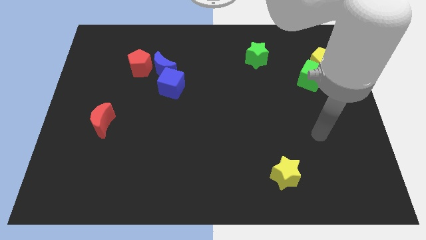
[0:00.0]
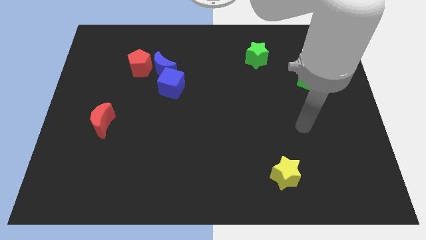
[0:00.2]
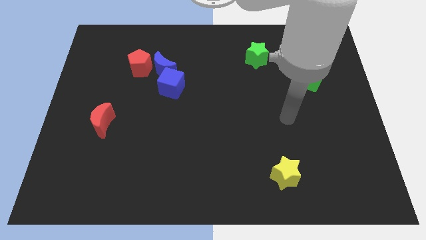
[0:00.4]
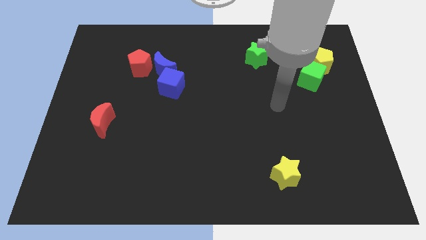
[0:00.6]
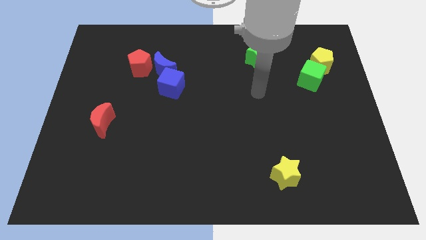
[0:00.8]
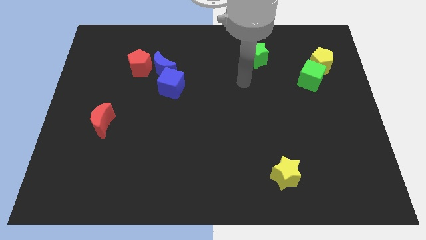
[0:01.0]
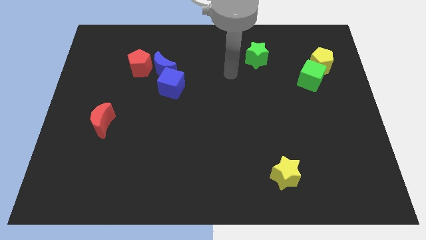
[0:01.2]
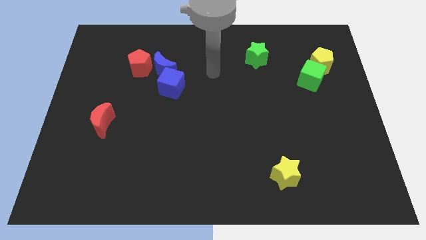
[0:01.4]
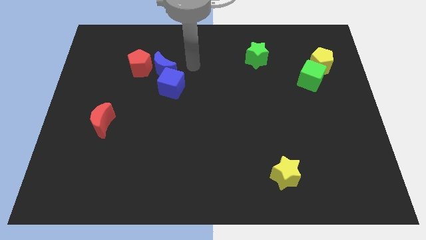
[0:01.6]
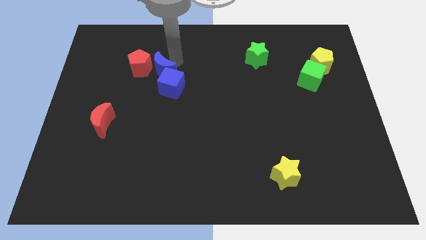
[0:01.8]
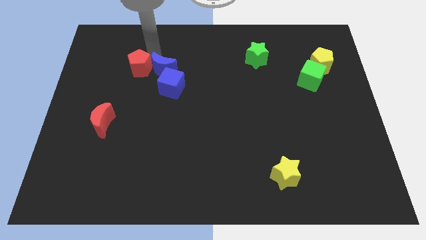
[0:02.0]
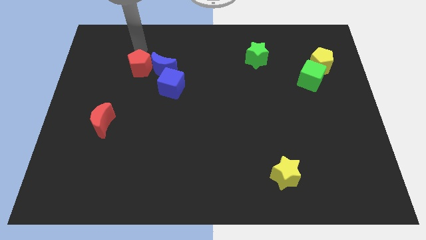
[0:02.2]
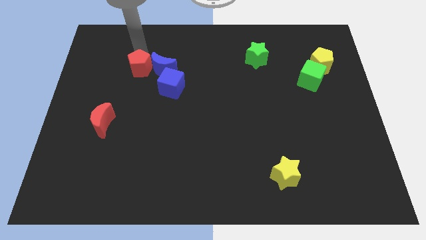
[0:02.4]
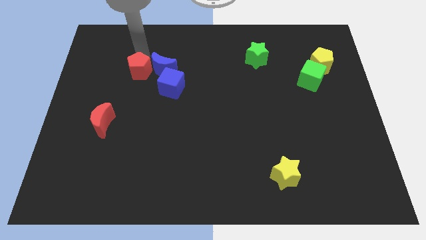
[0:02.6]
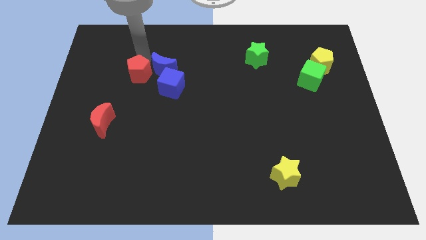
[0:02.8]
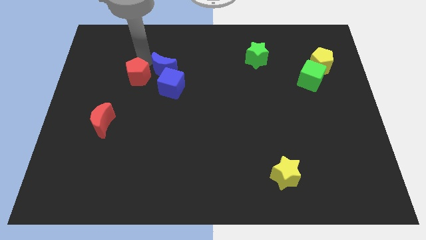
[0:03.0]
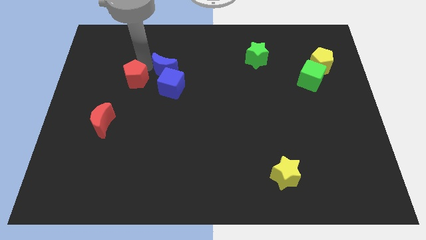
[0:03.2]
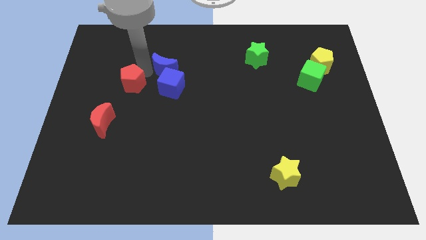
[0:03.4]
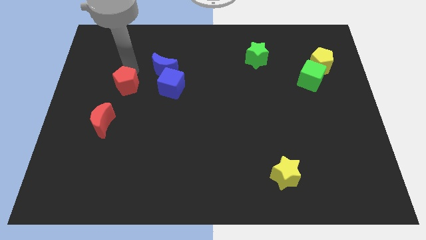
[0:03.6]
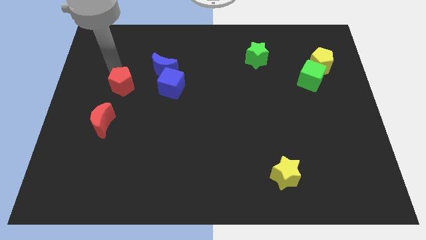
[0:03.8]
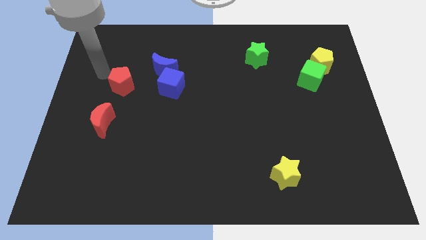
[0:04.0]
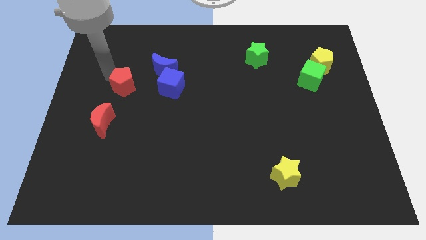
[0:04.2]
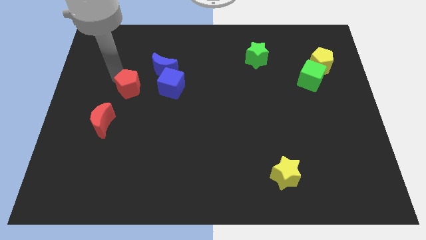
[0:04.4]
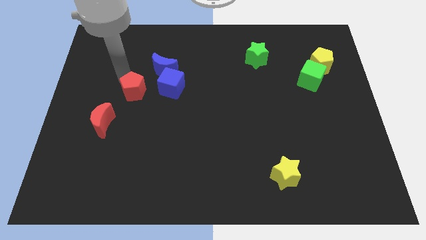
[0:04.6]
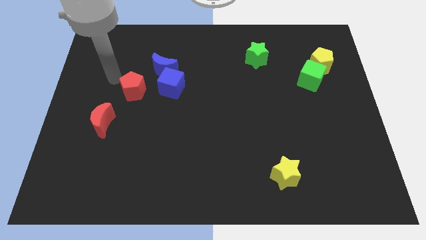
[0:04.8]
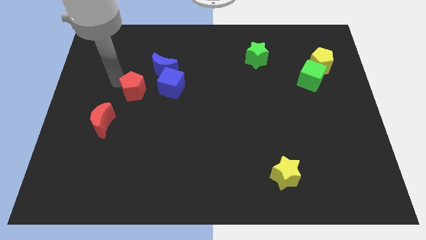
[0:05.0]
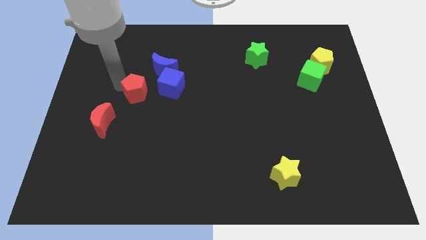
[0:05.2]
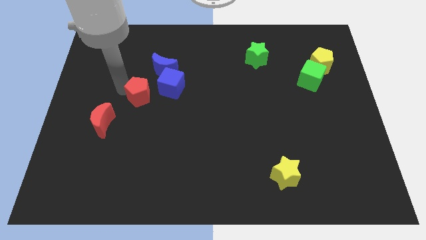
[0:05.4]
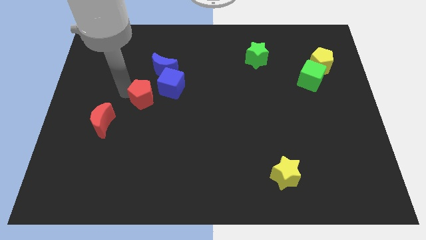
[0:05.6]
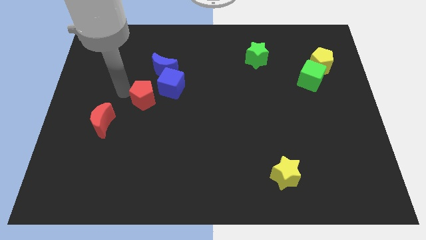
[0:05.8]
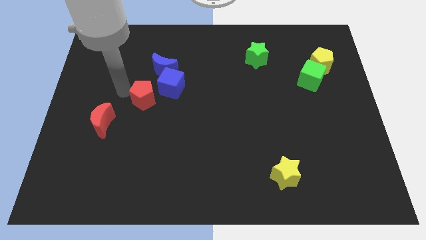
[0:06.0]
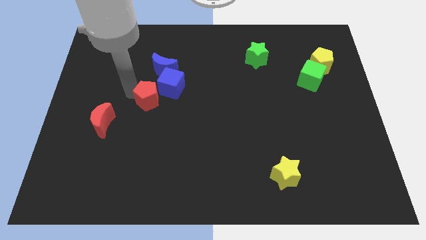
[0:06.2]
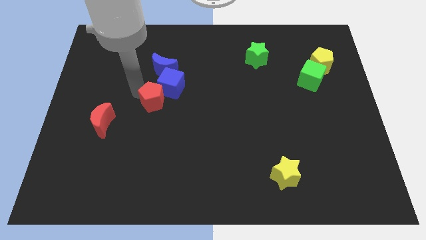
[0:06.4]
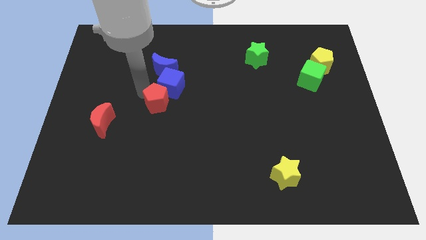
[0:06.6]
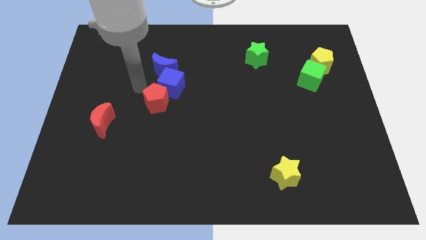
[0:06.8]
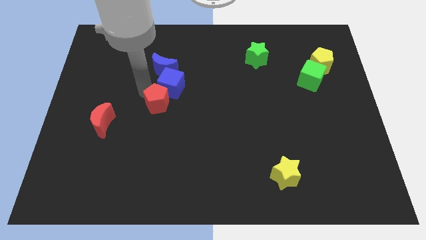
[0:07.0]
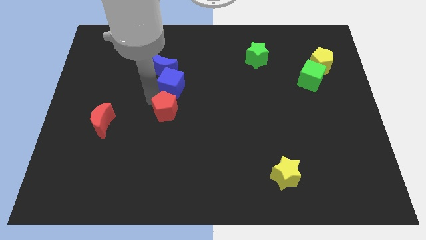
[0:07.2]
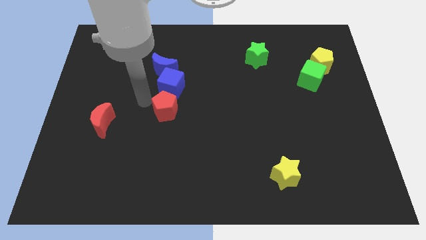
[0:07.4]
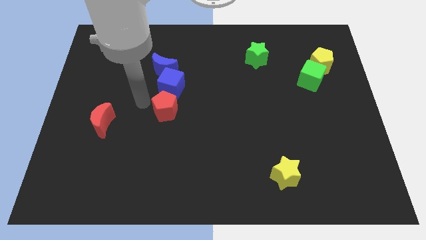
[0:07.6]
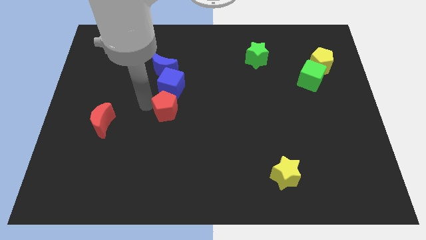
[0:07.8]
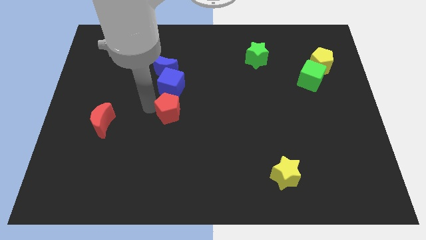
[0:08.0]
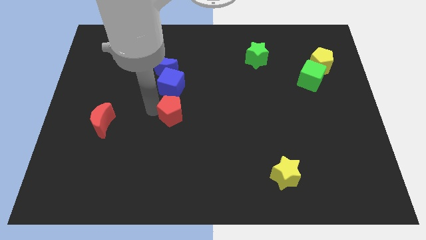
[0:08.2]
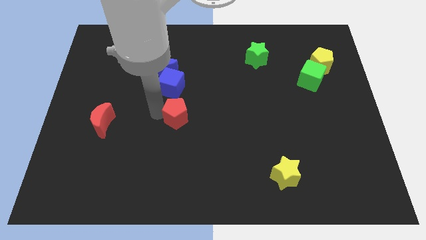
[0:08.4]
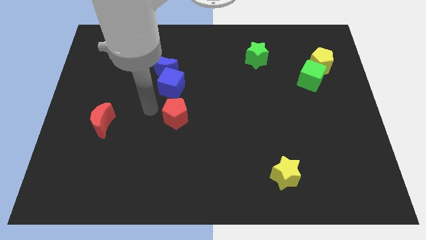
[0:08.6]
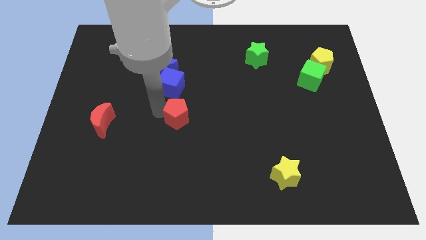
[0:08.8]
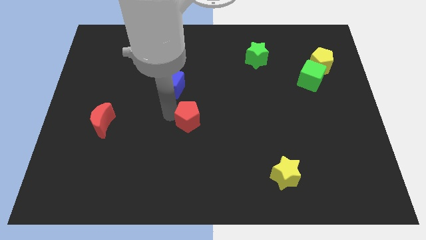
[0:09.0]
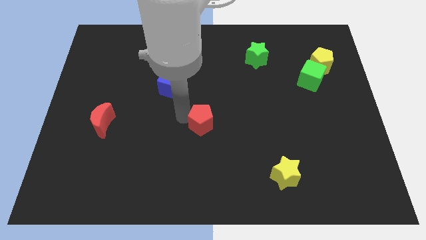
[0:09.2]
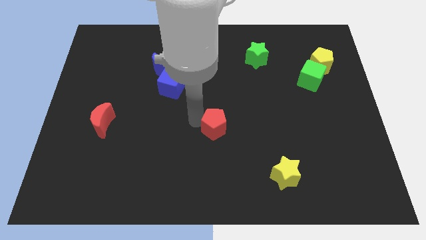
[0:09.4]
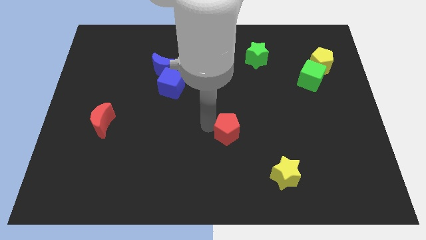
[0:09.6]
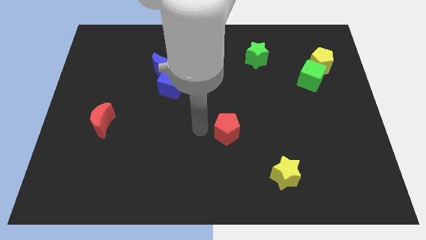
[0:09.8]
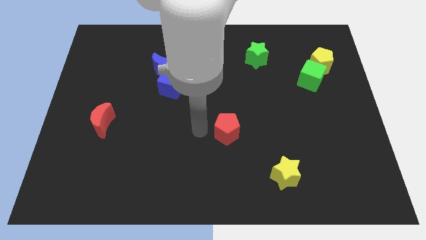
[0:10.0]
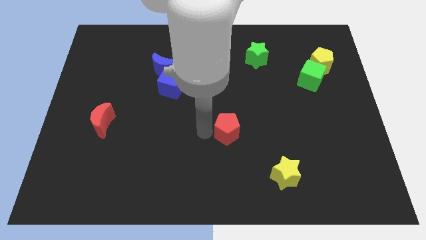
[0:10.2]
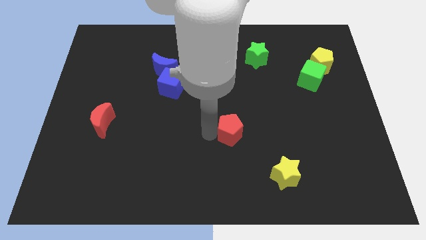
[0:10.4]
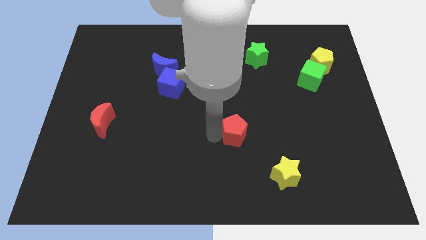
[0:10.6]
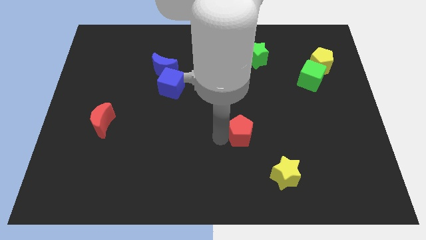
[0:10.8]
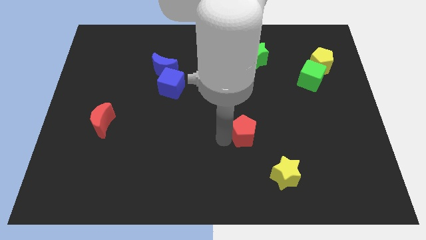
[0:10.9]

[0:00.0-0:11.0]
push the red pentagon diagonally up and to the left of the yellow star

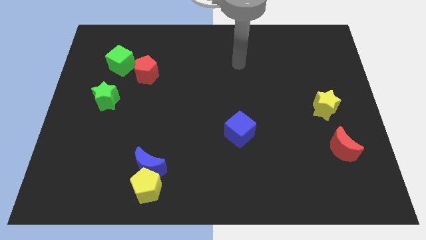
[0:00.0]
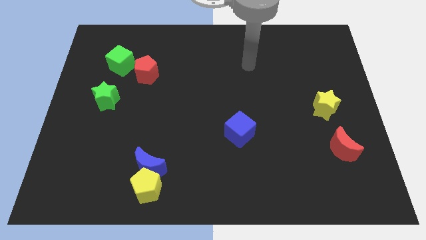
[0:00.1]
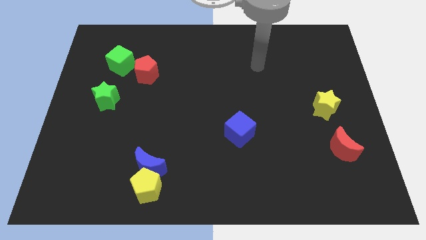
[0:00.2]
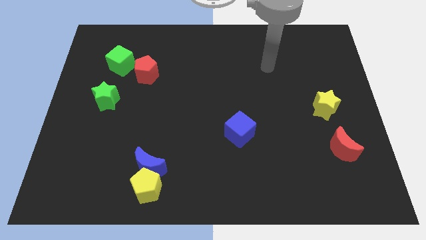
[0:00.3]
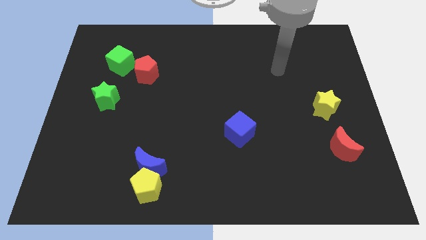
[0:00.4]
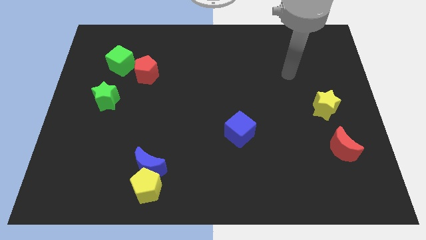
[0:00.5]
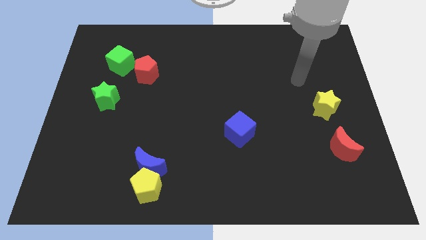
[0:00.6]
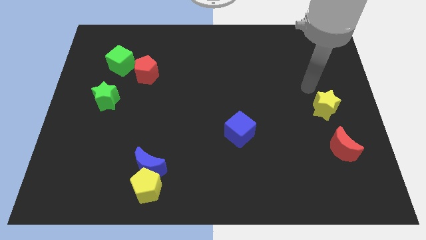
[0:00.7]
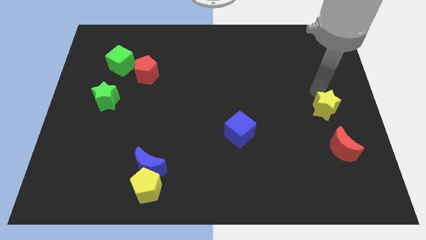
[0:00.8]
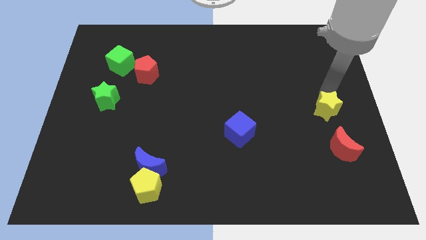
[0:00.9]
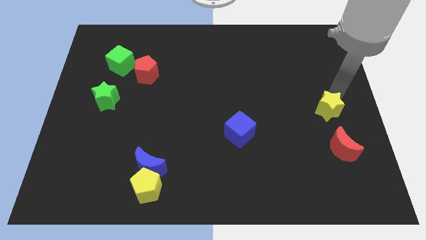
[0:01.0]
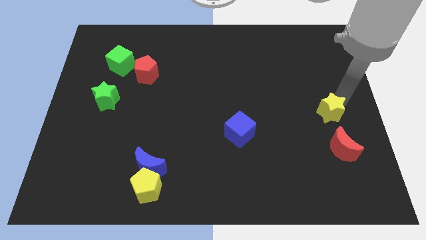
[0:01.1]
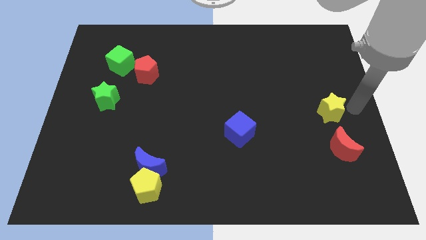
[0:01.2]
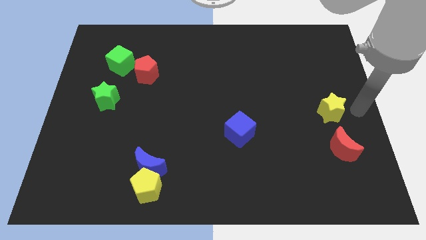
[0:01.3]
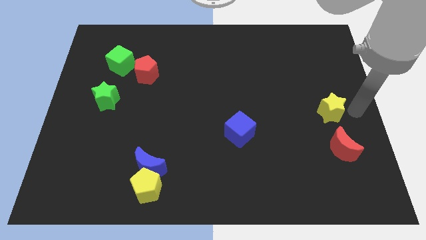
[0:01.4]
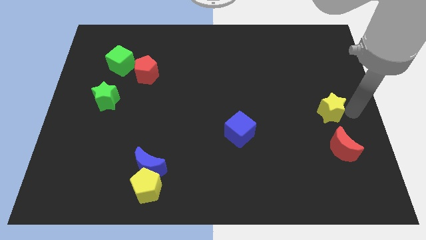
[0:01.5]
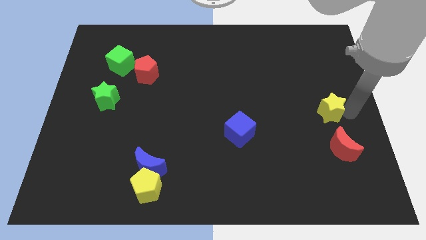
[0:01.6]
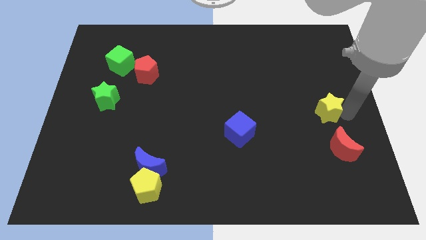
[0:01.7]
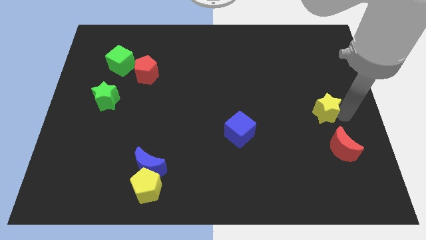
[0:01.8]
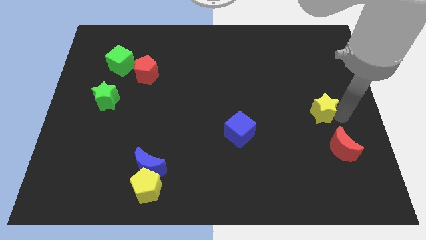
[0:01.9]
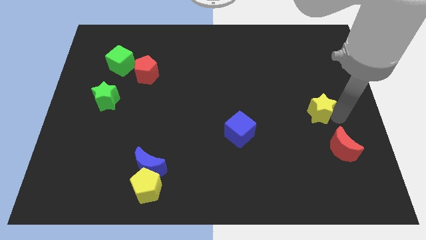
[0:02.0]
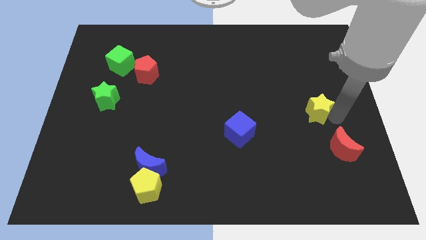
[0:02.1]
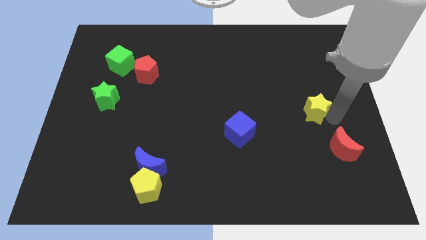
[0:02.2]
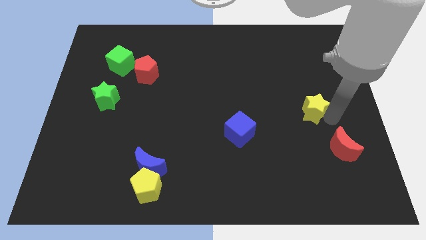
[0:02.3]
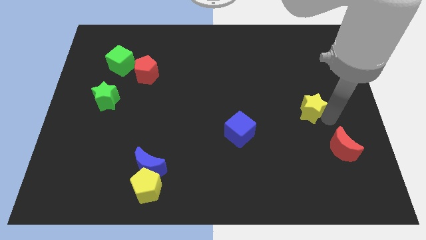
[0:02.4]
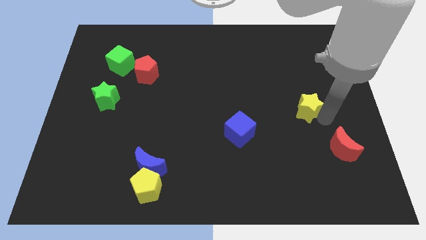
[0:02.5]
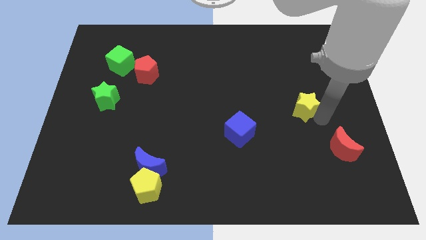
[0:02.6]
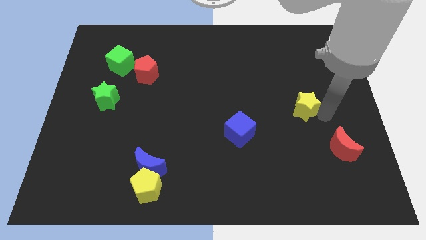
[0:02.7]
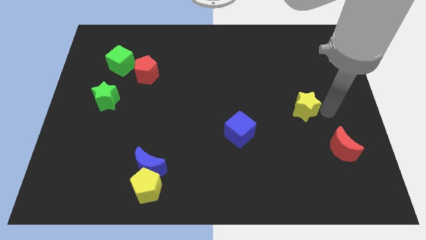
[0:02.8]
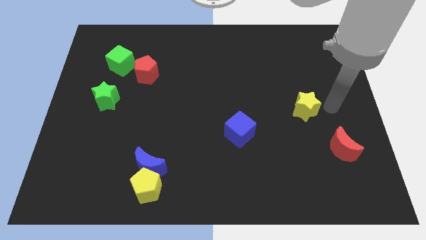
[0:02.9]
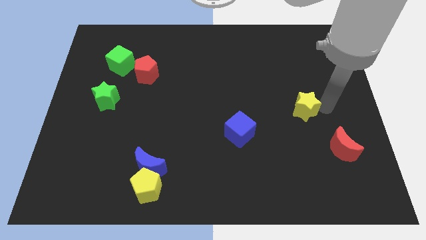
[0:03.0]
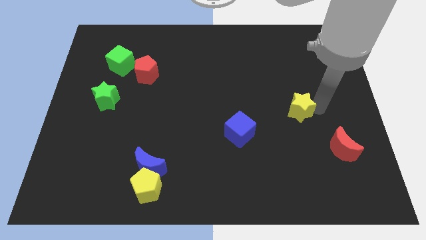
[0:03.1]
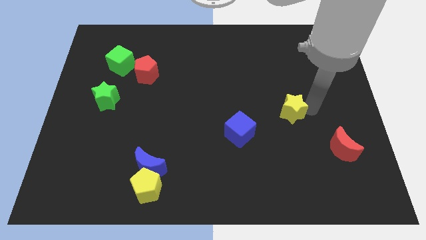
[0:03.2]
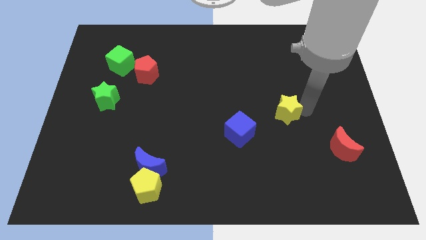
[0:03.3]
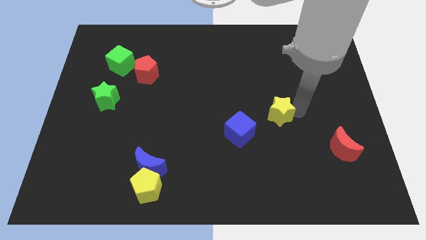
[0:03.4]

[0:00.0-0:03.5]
put the yellow star to the top right of the blue cube
